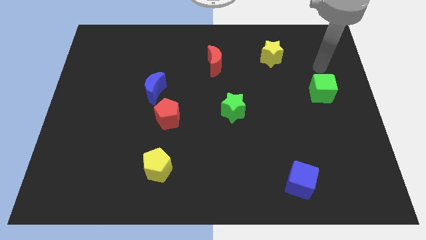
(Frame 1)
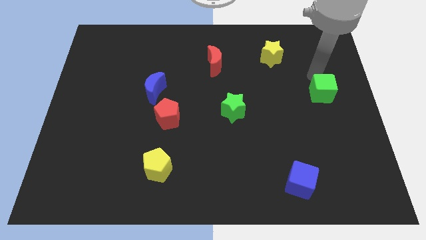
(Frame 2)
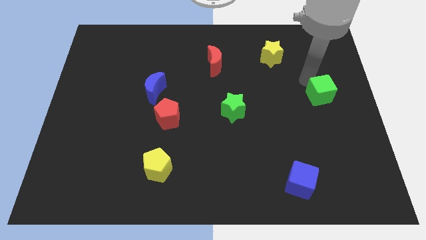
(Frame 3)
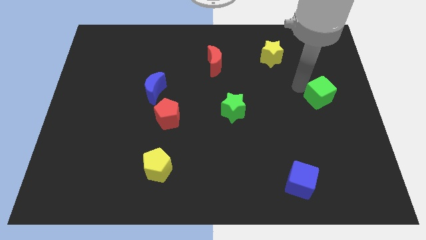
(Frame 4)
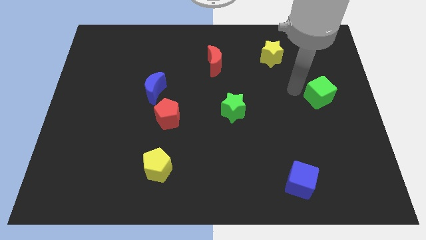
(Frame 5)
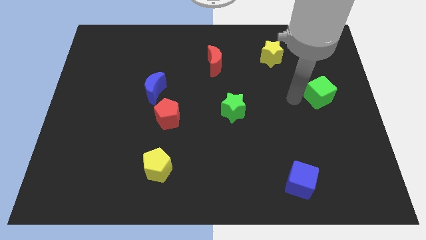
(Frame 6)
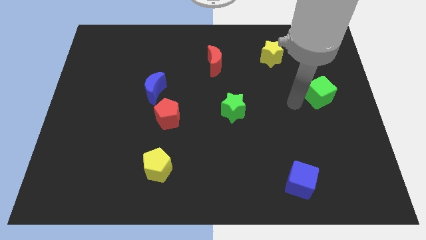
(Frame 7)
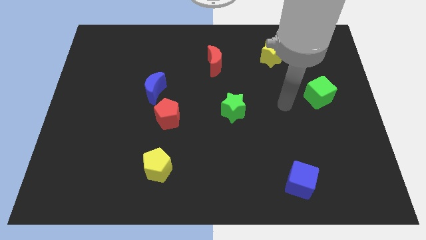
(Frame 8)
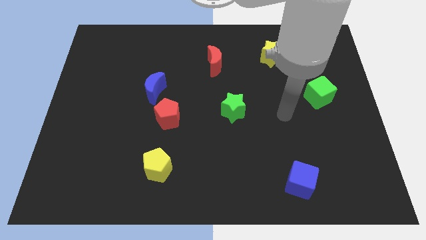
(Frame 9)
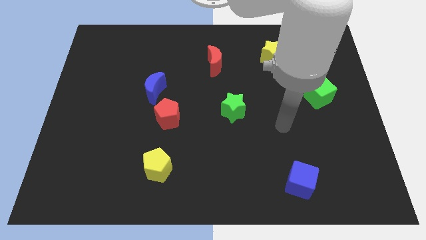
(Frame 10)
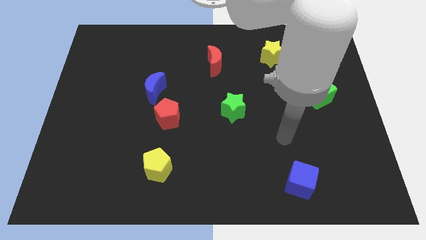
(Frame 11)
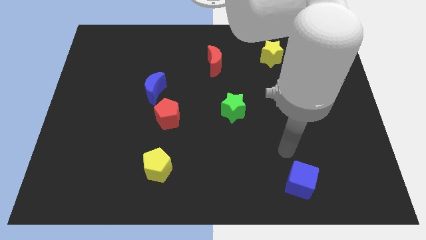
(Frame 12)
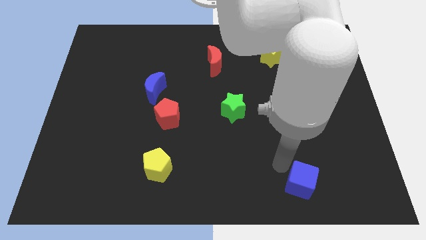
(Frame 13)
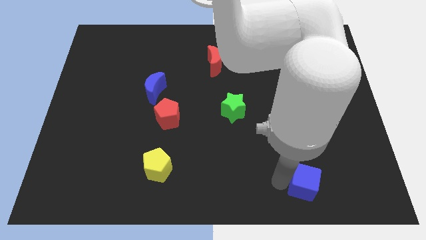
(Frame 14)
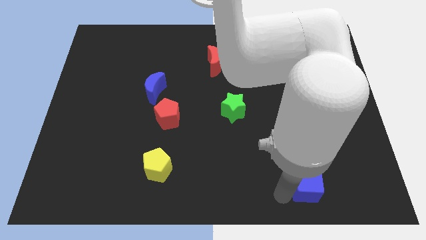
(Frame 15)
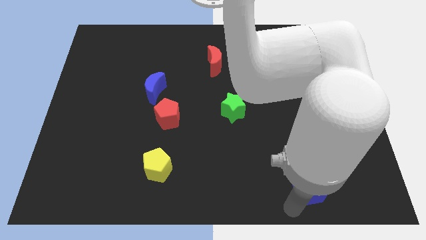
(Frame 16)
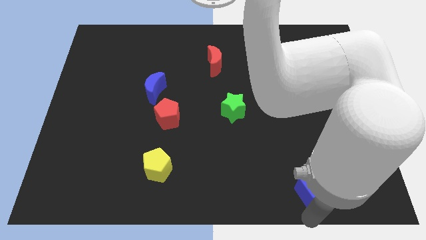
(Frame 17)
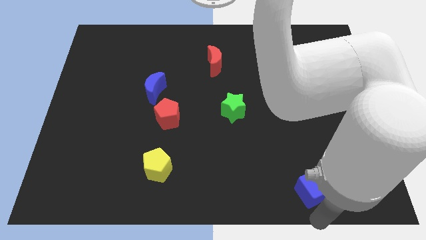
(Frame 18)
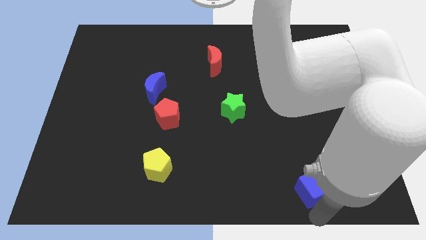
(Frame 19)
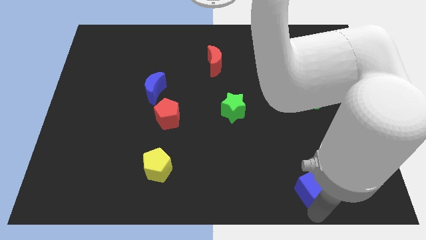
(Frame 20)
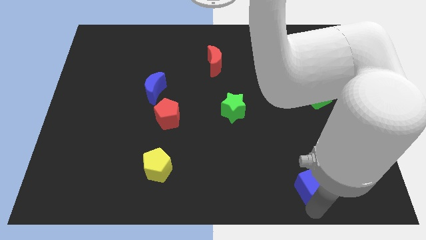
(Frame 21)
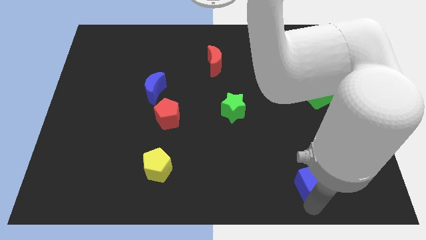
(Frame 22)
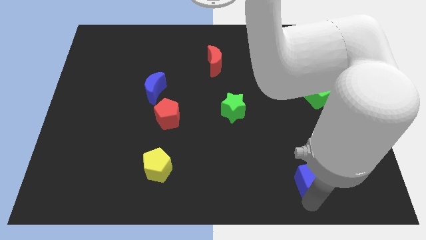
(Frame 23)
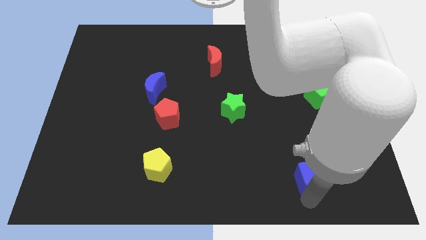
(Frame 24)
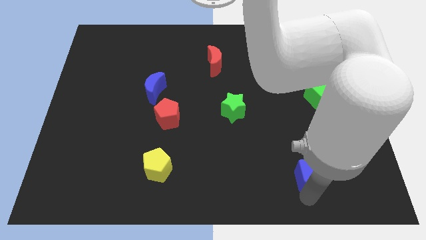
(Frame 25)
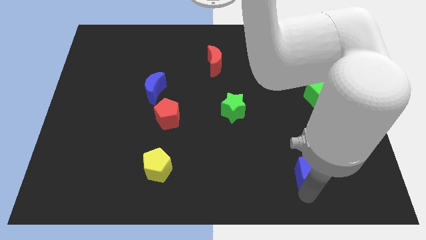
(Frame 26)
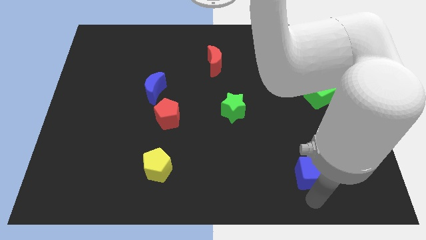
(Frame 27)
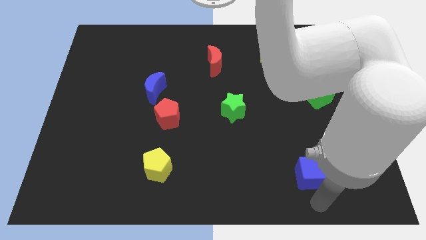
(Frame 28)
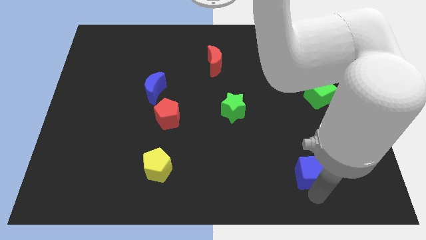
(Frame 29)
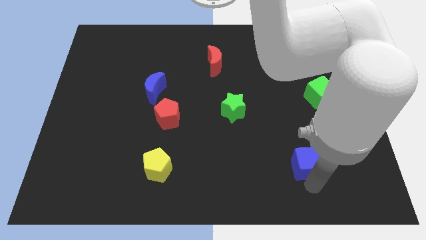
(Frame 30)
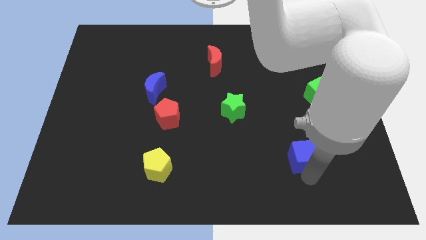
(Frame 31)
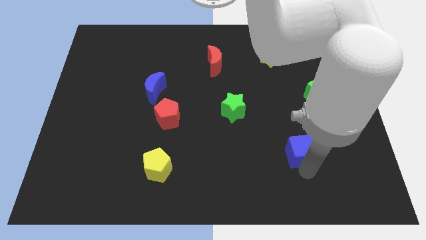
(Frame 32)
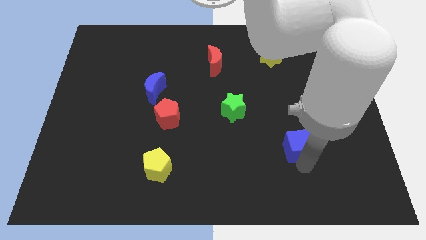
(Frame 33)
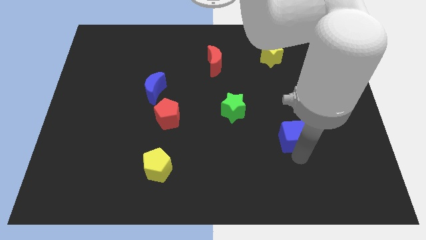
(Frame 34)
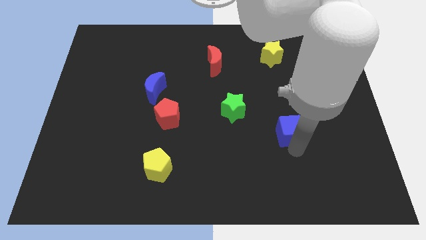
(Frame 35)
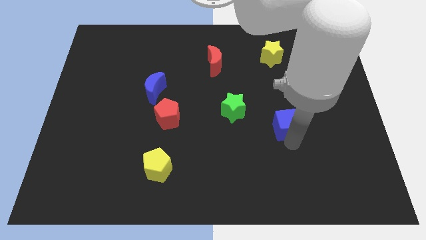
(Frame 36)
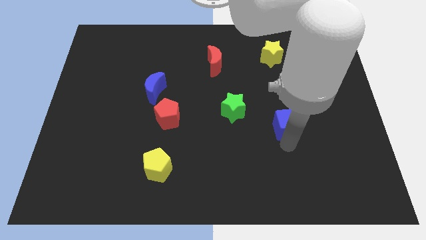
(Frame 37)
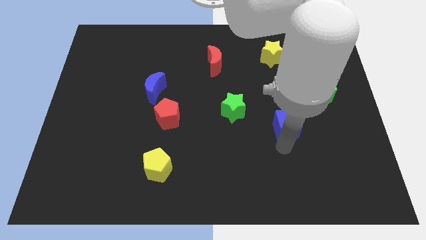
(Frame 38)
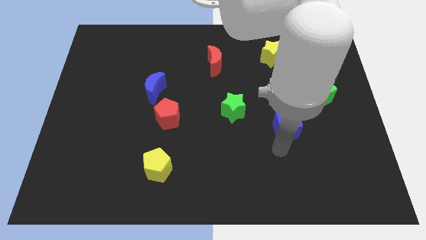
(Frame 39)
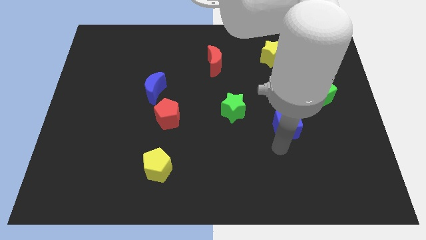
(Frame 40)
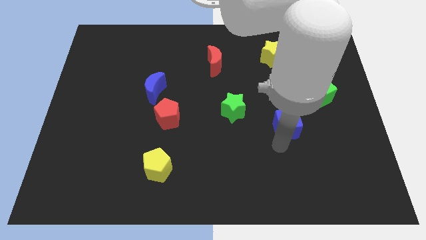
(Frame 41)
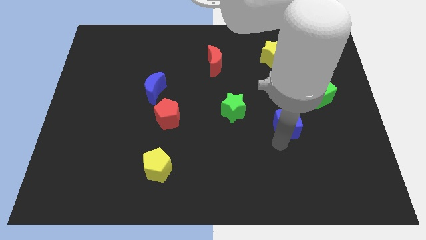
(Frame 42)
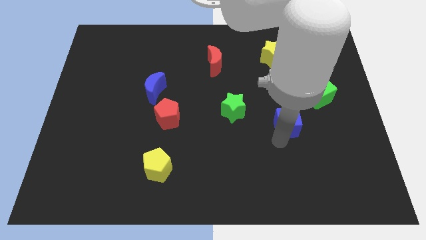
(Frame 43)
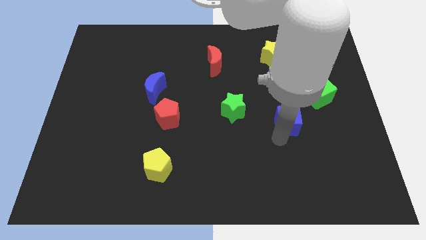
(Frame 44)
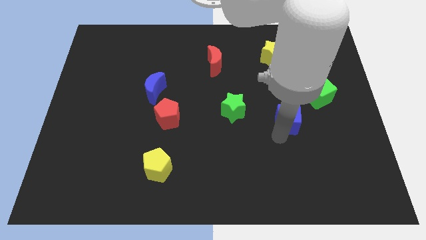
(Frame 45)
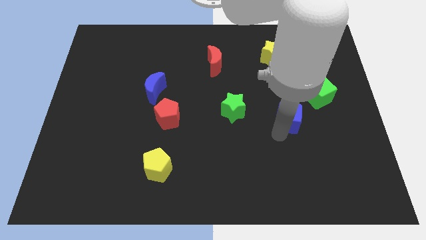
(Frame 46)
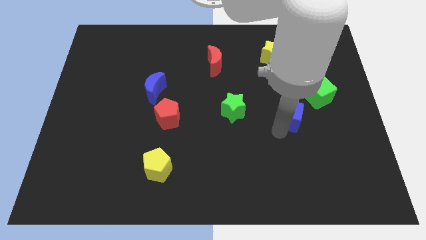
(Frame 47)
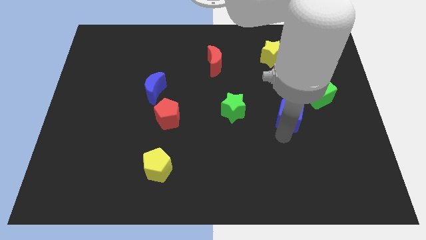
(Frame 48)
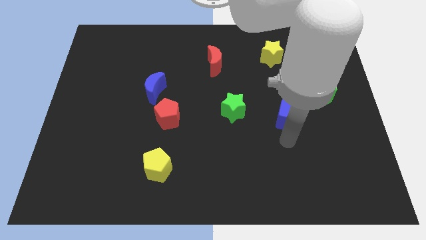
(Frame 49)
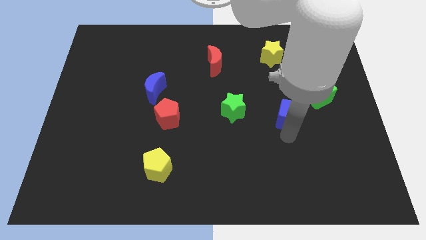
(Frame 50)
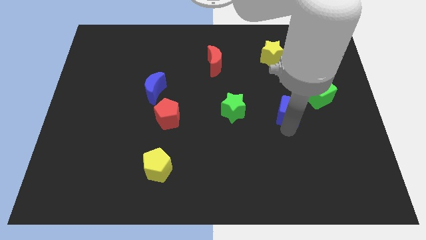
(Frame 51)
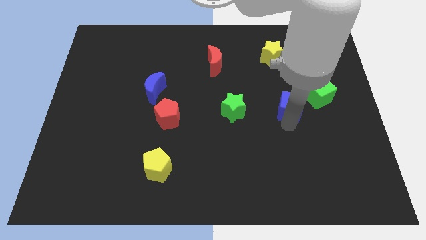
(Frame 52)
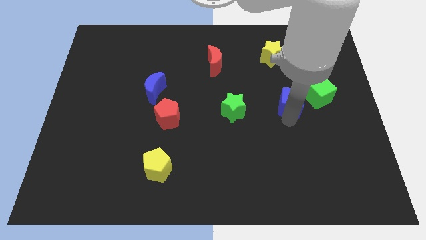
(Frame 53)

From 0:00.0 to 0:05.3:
push the blue cube upwards

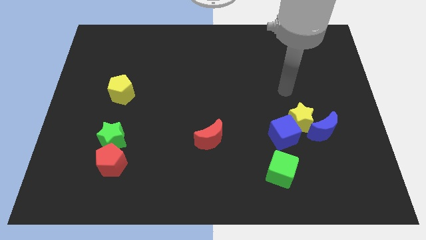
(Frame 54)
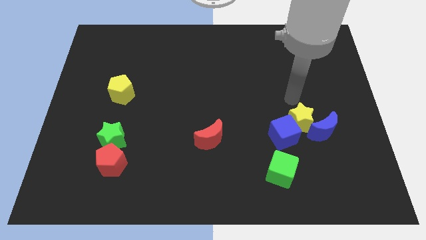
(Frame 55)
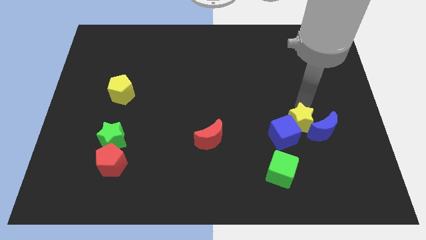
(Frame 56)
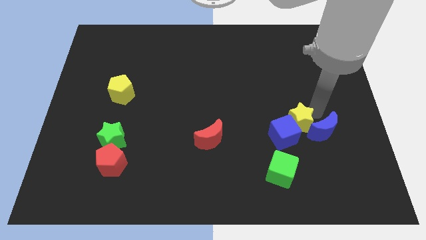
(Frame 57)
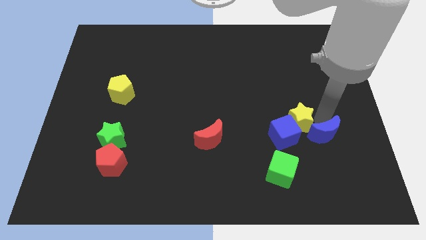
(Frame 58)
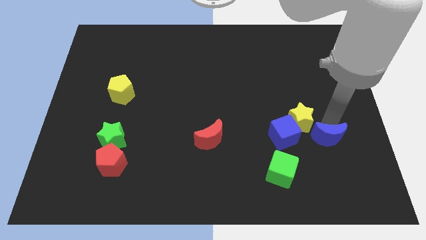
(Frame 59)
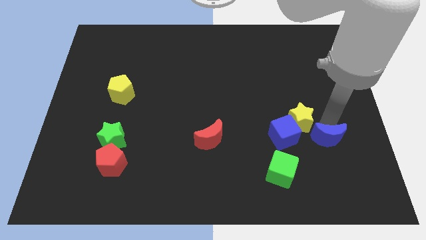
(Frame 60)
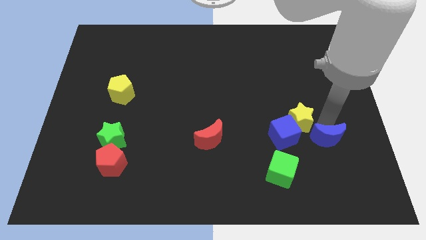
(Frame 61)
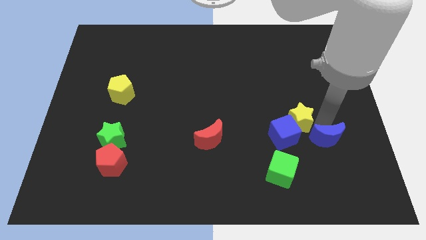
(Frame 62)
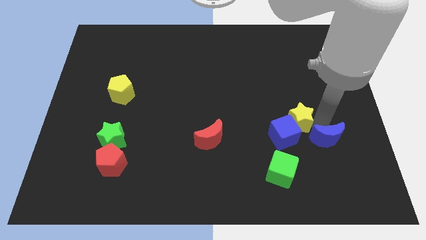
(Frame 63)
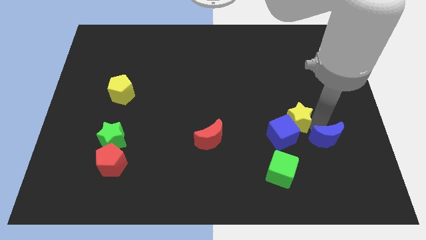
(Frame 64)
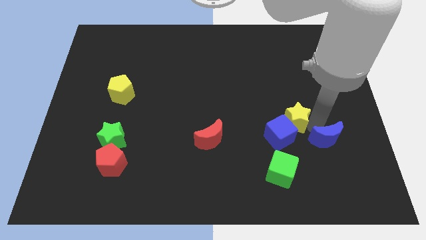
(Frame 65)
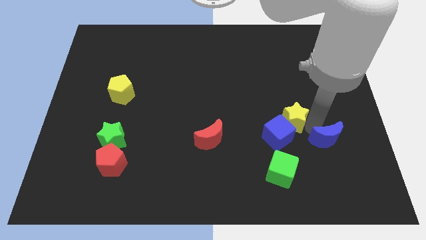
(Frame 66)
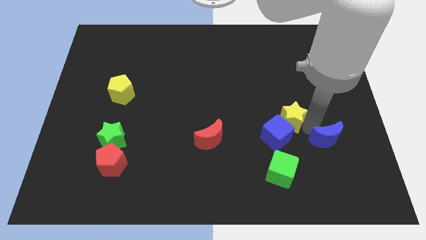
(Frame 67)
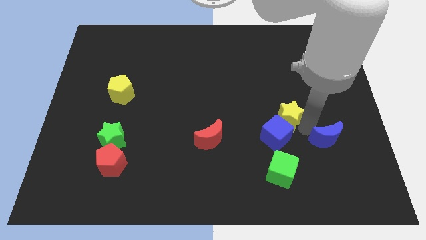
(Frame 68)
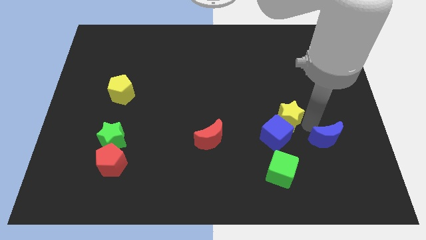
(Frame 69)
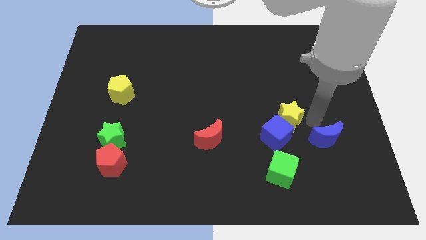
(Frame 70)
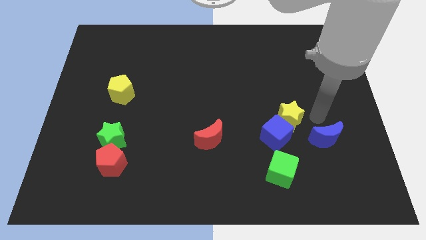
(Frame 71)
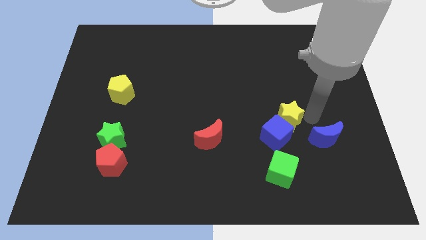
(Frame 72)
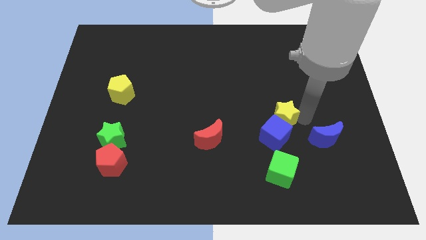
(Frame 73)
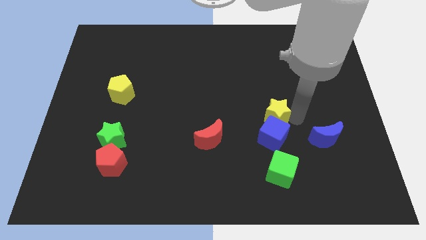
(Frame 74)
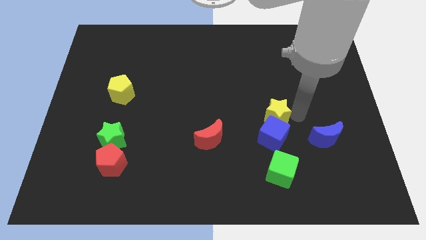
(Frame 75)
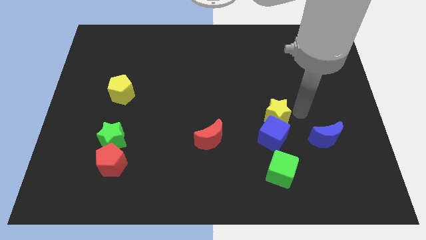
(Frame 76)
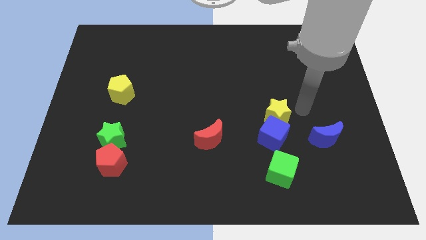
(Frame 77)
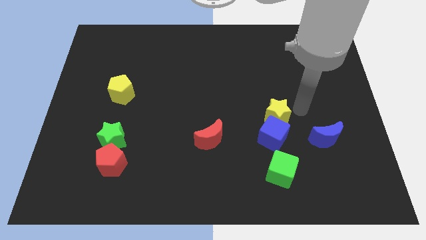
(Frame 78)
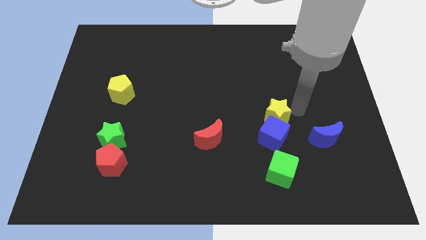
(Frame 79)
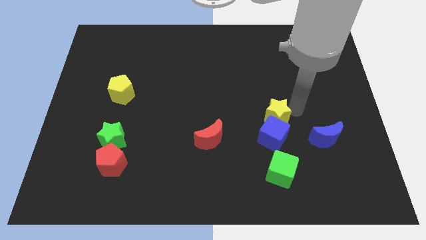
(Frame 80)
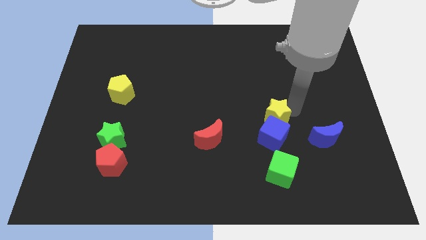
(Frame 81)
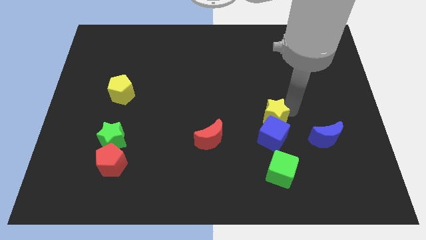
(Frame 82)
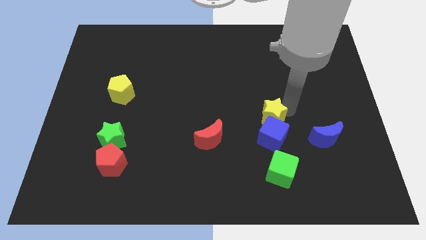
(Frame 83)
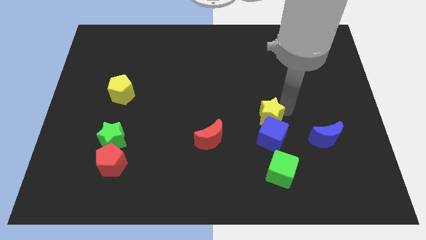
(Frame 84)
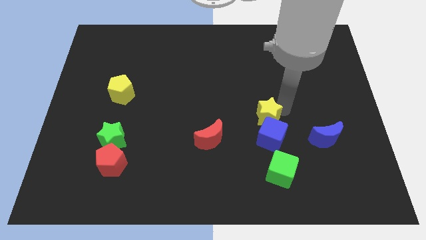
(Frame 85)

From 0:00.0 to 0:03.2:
move the yellow star somewhat left
